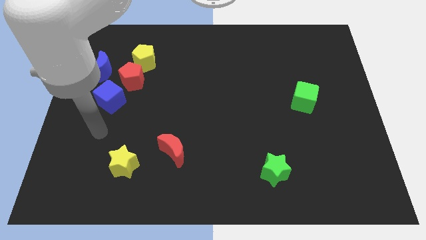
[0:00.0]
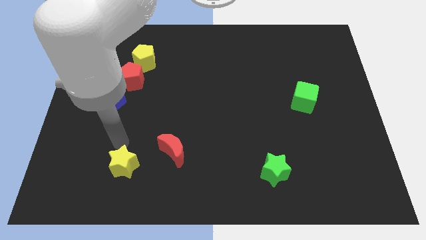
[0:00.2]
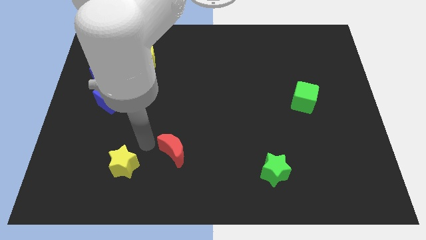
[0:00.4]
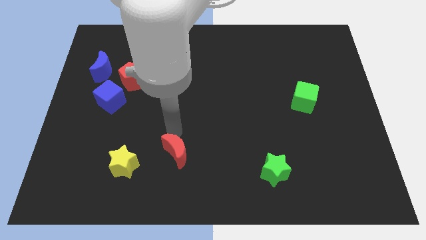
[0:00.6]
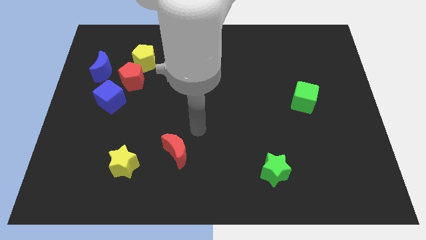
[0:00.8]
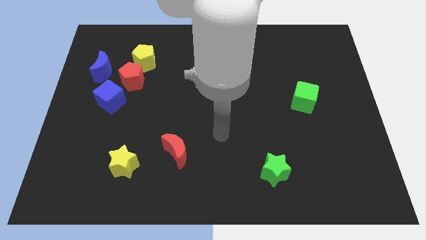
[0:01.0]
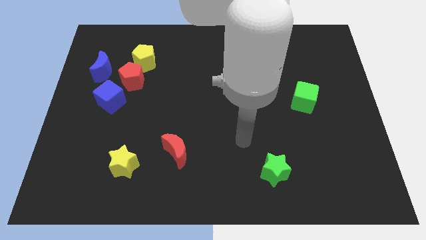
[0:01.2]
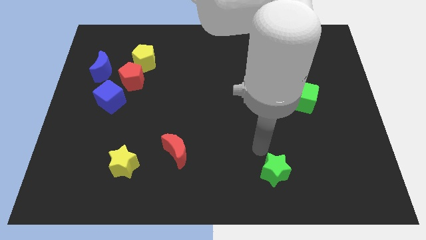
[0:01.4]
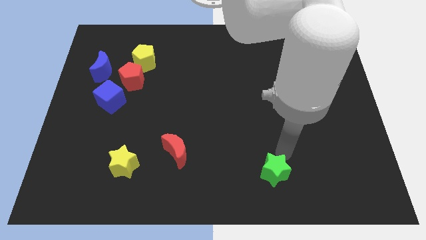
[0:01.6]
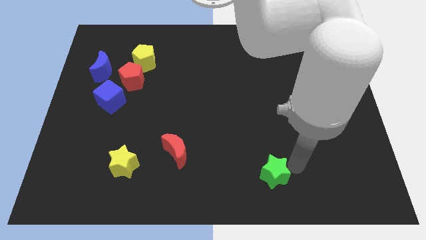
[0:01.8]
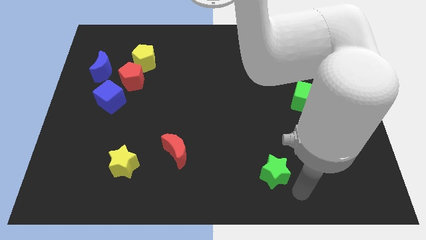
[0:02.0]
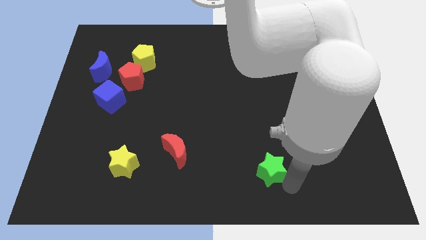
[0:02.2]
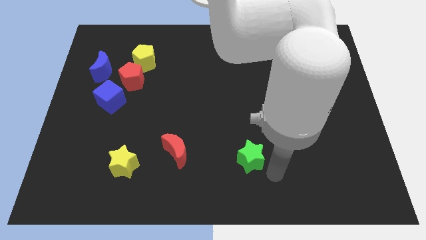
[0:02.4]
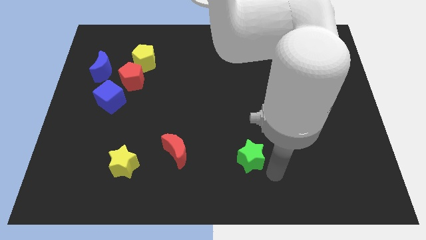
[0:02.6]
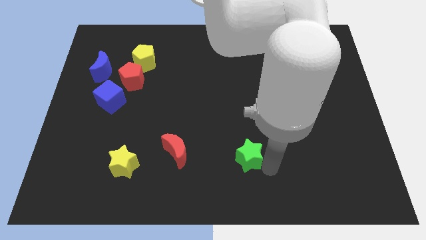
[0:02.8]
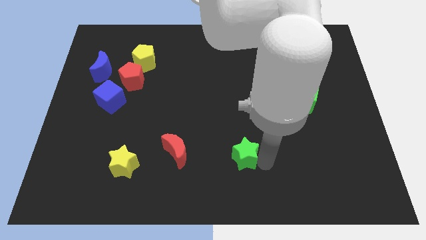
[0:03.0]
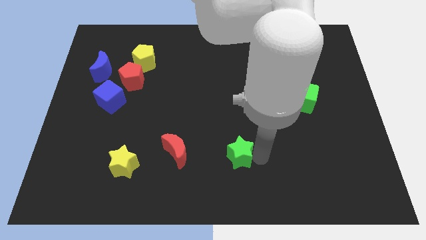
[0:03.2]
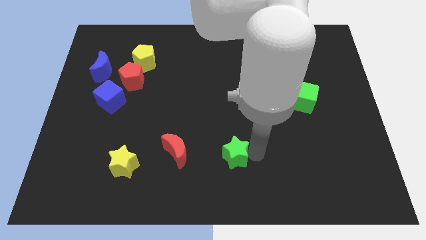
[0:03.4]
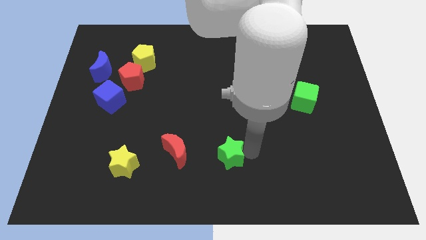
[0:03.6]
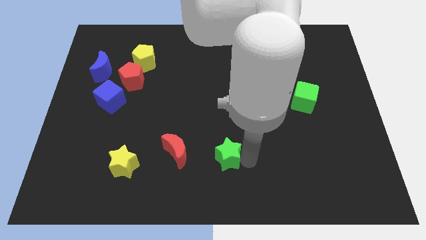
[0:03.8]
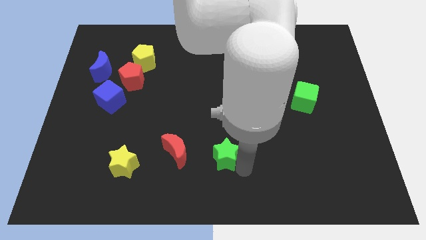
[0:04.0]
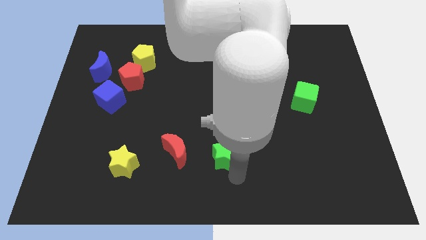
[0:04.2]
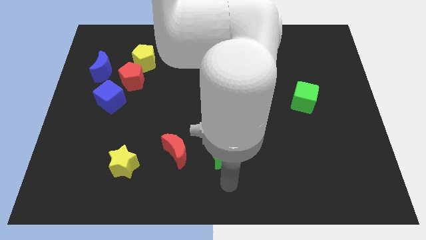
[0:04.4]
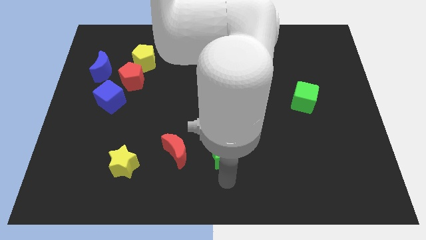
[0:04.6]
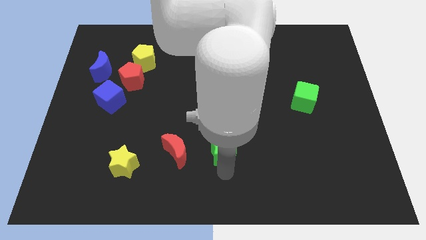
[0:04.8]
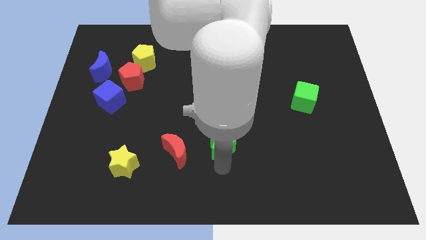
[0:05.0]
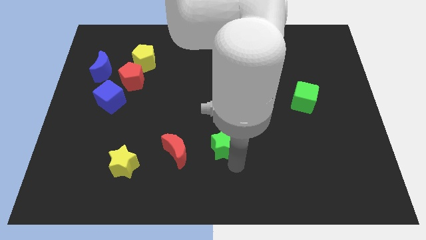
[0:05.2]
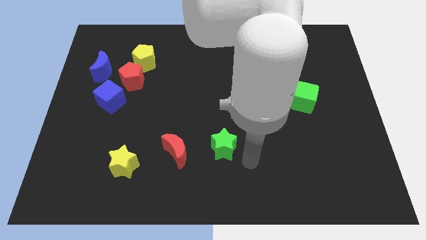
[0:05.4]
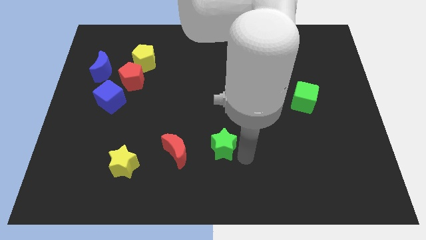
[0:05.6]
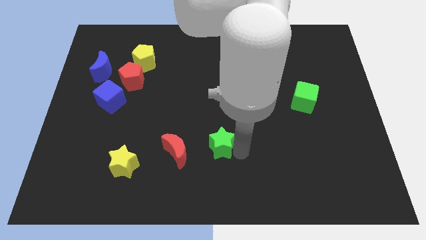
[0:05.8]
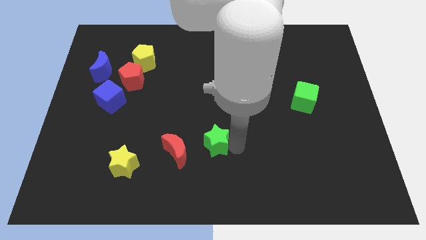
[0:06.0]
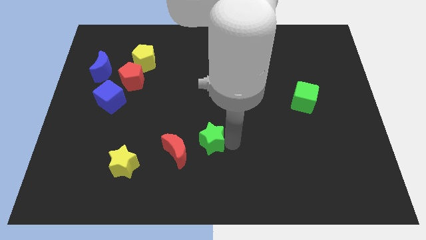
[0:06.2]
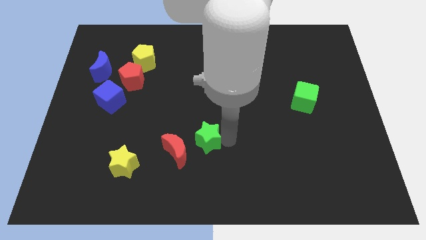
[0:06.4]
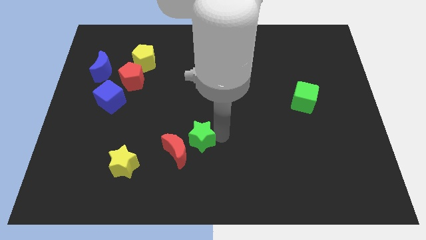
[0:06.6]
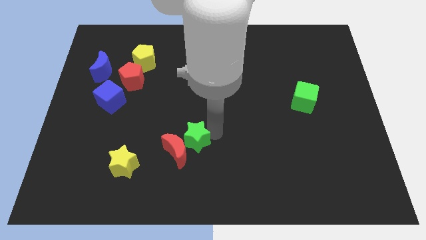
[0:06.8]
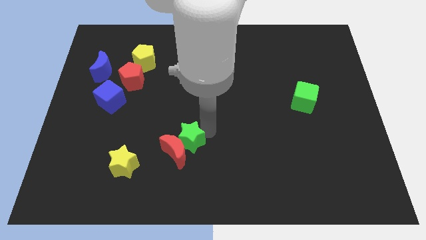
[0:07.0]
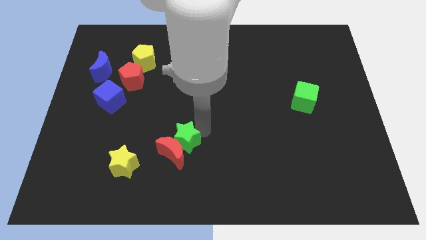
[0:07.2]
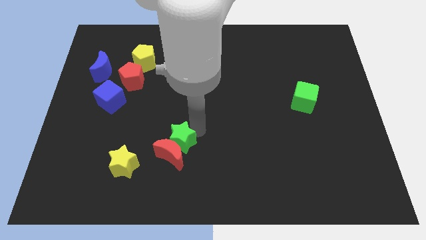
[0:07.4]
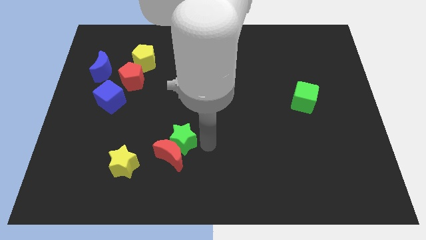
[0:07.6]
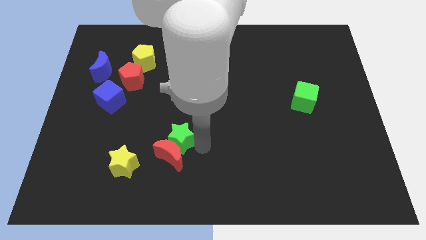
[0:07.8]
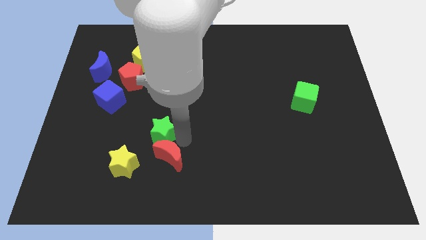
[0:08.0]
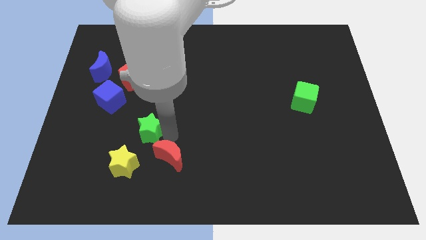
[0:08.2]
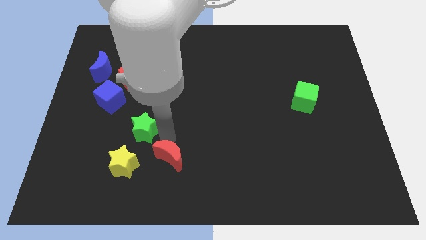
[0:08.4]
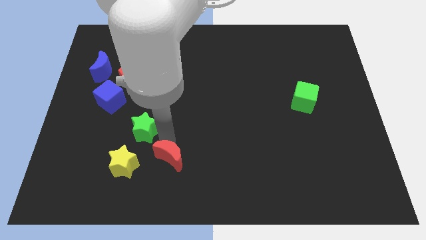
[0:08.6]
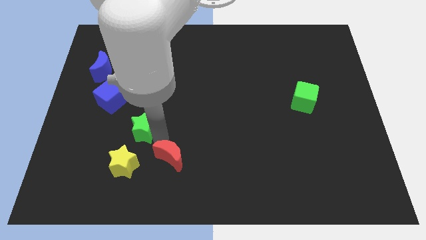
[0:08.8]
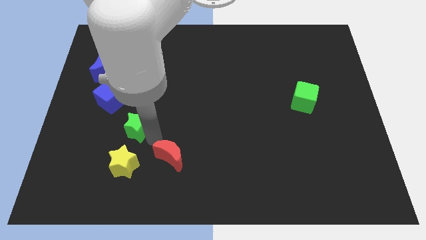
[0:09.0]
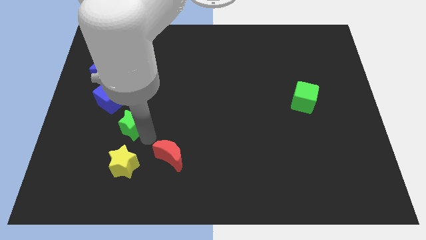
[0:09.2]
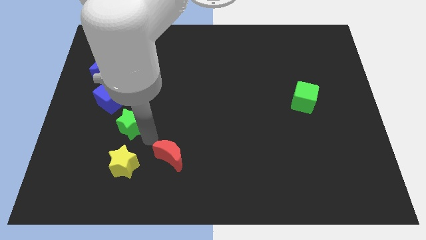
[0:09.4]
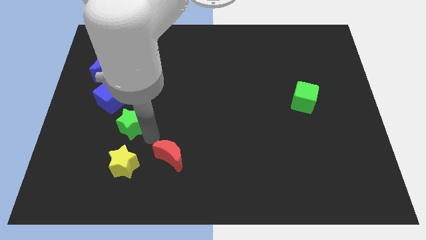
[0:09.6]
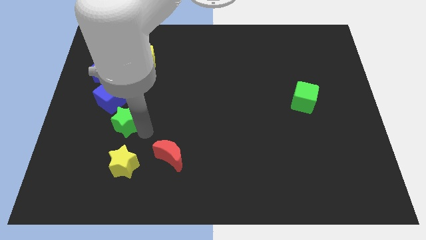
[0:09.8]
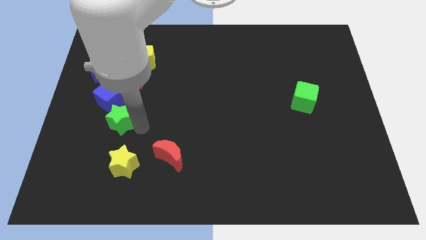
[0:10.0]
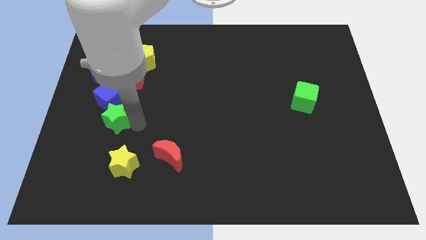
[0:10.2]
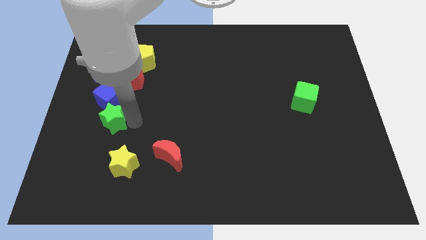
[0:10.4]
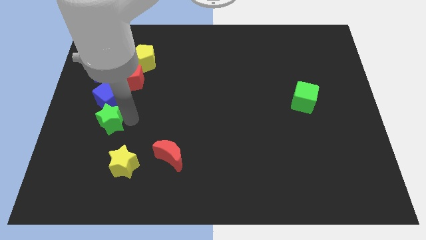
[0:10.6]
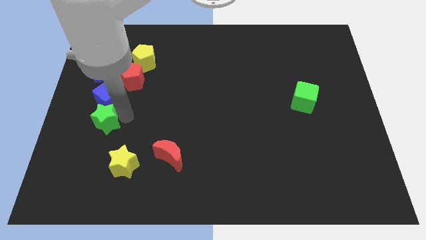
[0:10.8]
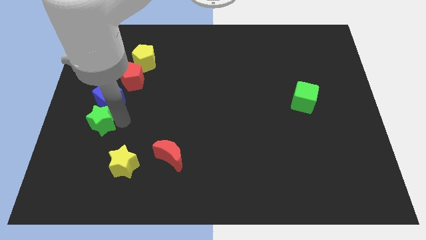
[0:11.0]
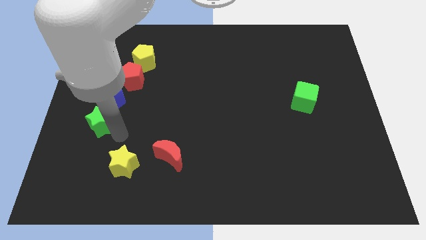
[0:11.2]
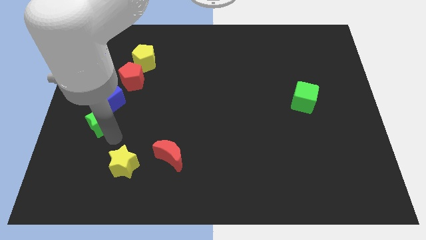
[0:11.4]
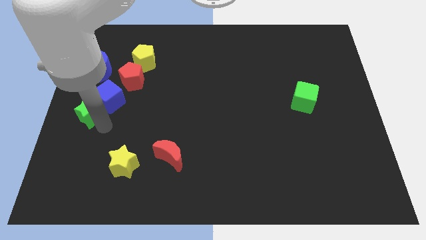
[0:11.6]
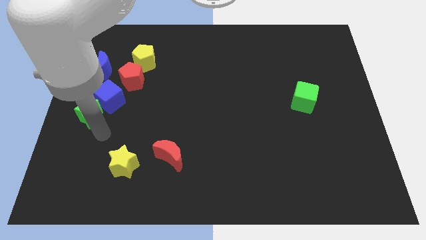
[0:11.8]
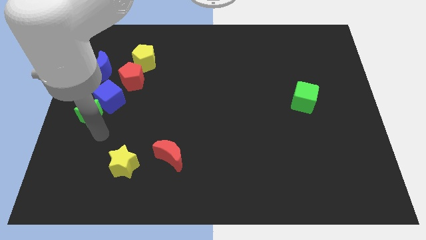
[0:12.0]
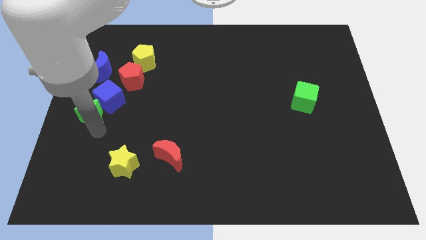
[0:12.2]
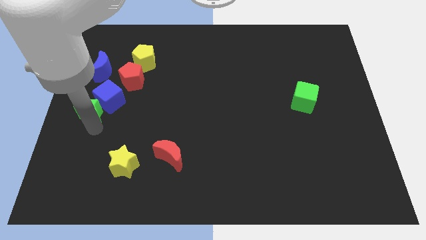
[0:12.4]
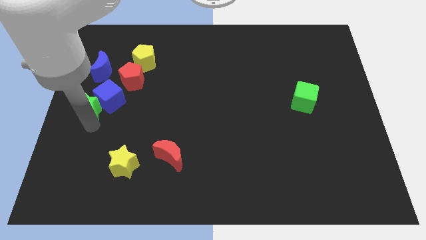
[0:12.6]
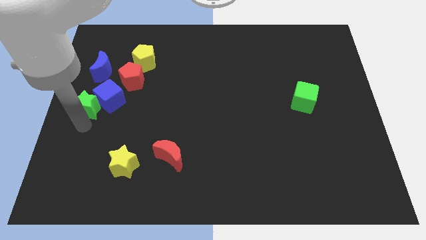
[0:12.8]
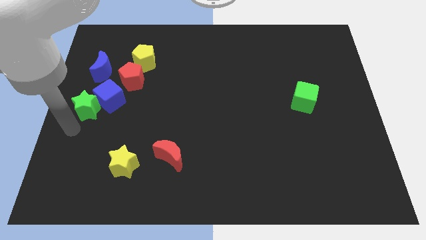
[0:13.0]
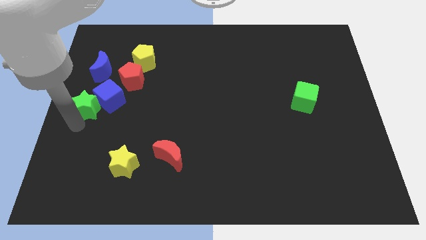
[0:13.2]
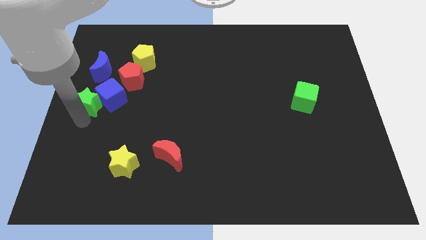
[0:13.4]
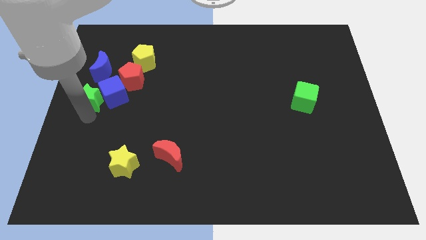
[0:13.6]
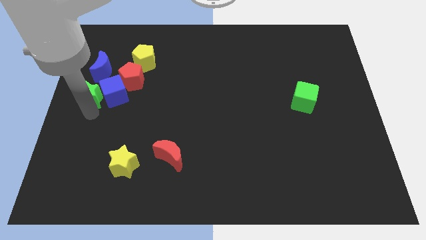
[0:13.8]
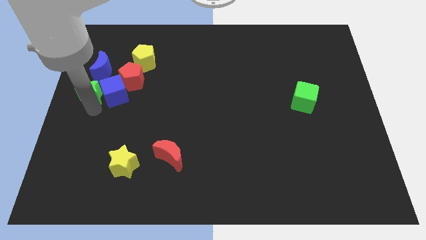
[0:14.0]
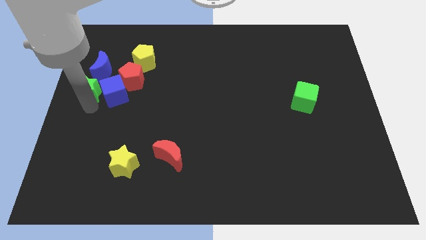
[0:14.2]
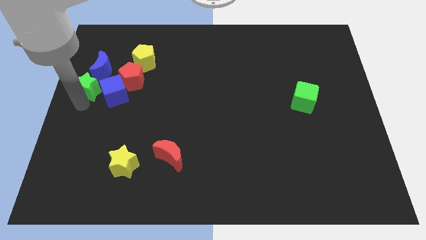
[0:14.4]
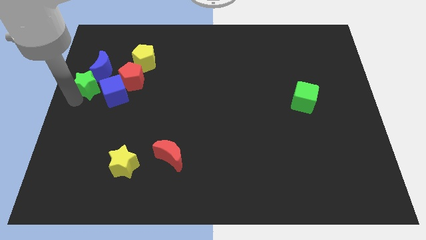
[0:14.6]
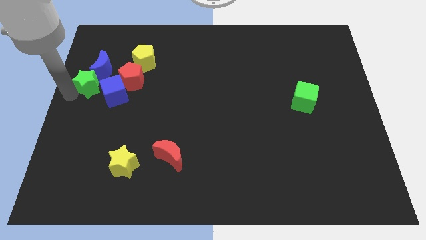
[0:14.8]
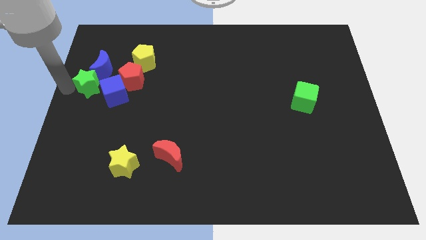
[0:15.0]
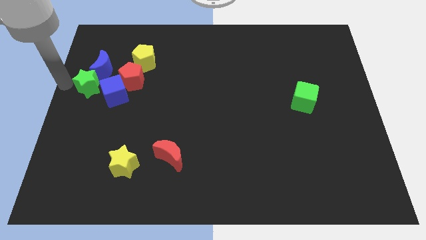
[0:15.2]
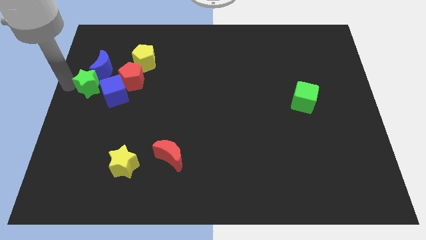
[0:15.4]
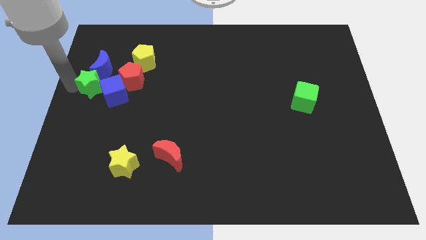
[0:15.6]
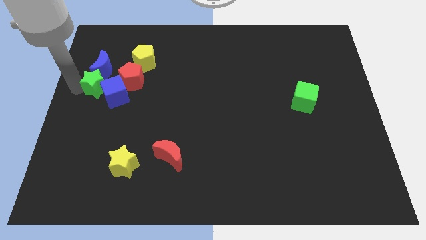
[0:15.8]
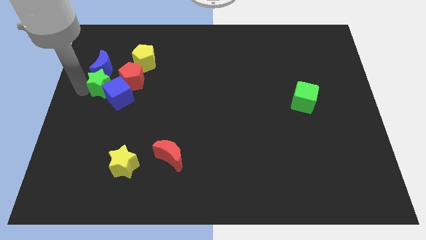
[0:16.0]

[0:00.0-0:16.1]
put the green star diagonally down and to the left of the yellow pentagon
